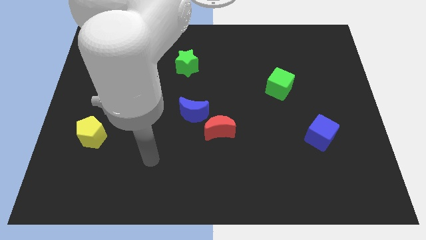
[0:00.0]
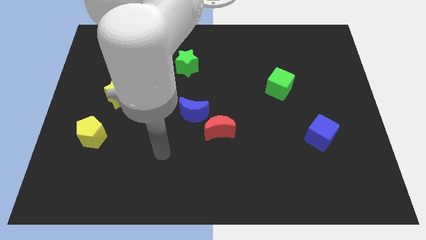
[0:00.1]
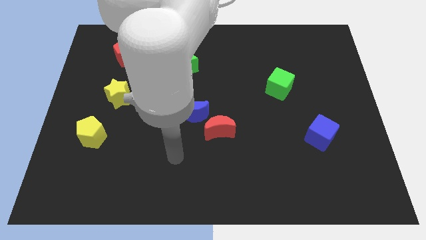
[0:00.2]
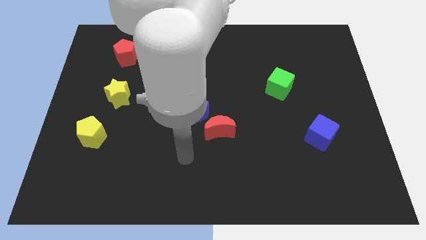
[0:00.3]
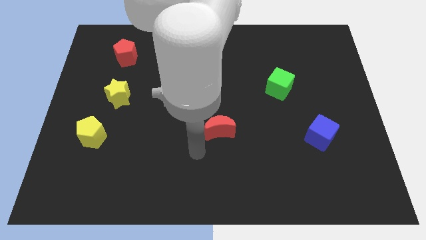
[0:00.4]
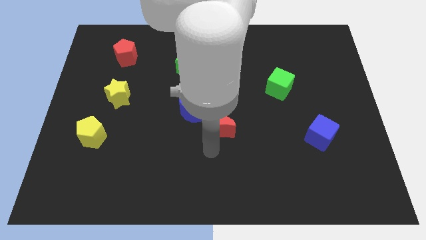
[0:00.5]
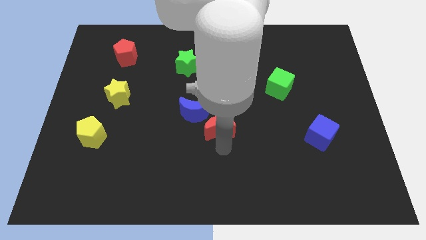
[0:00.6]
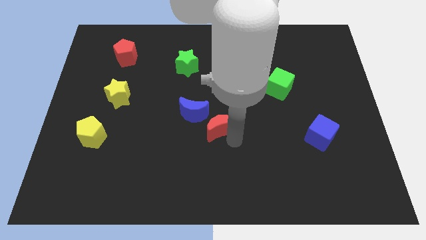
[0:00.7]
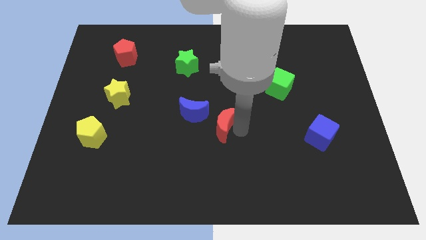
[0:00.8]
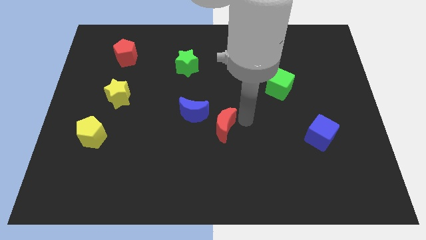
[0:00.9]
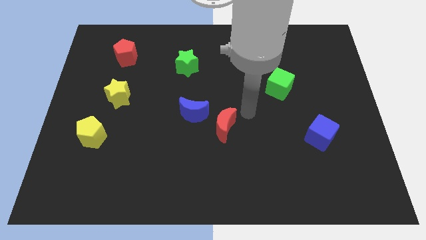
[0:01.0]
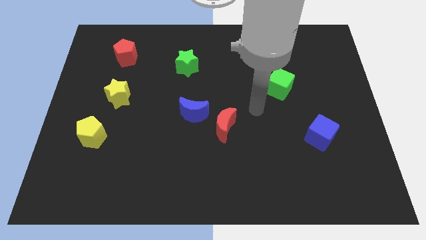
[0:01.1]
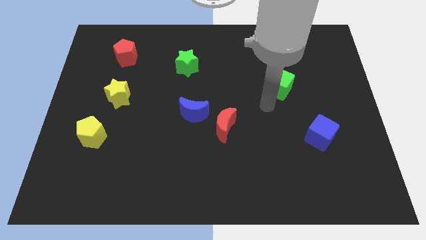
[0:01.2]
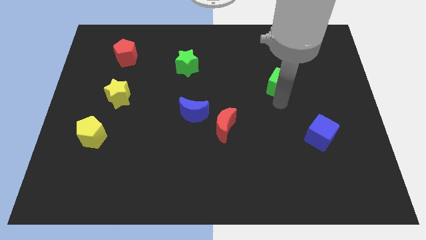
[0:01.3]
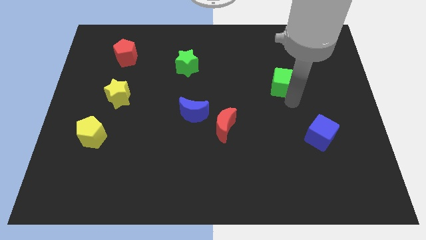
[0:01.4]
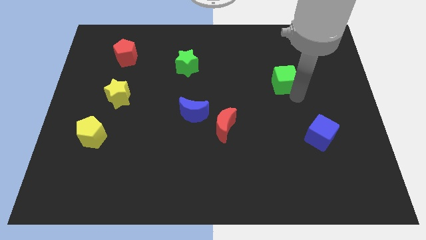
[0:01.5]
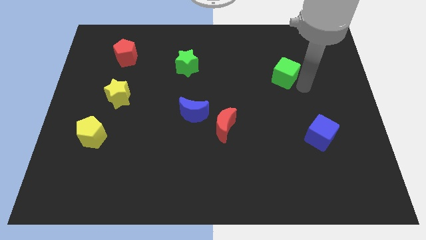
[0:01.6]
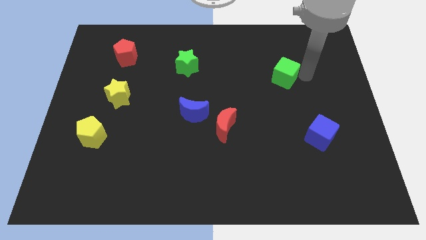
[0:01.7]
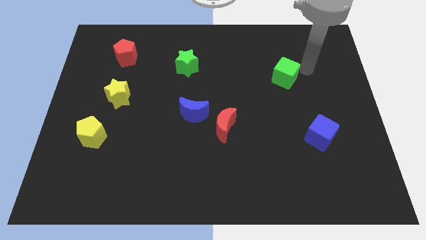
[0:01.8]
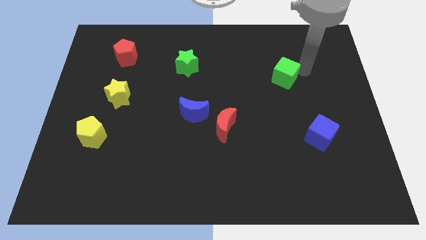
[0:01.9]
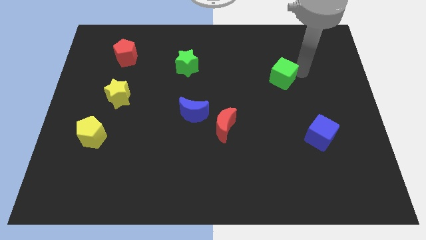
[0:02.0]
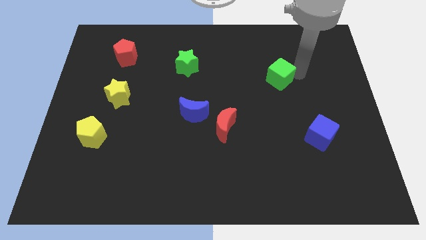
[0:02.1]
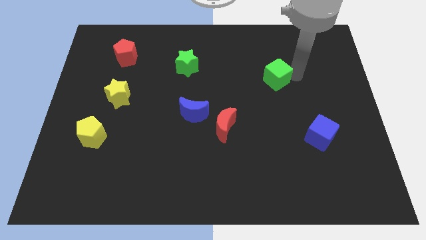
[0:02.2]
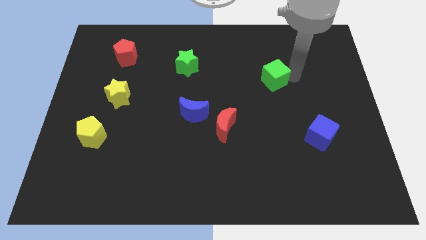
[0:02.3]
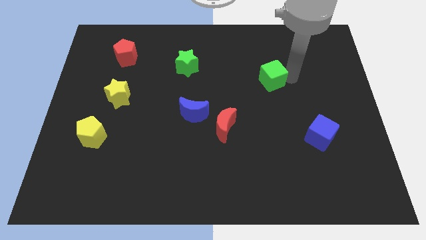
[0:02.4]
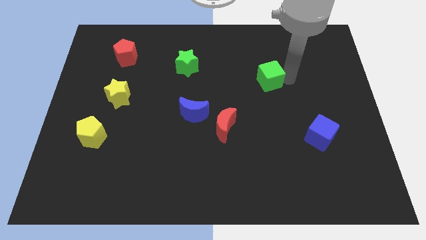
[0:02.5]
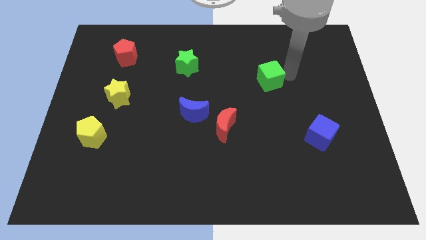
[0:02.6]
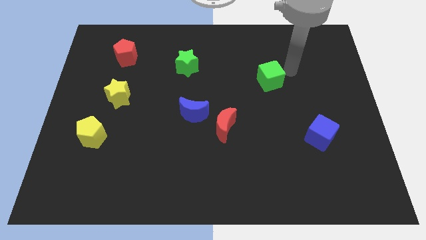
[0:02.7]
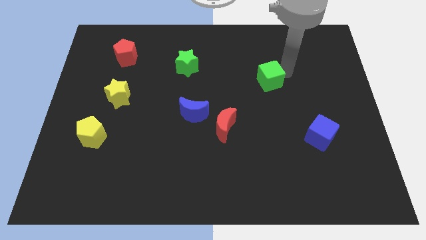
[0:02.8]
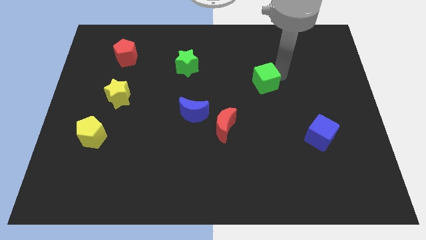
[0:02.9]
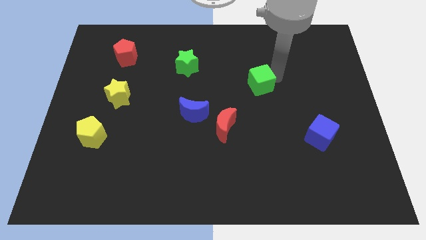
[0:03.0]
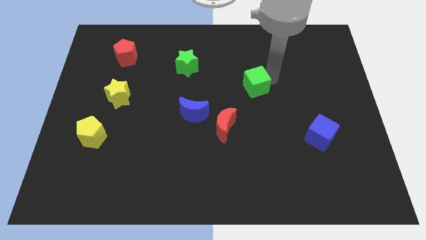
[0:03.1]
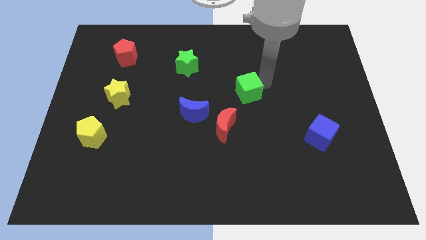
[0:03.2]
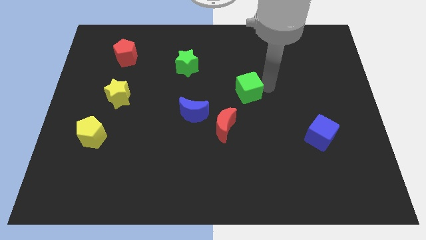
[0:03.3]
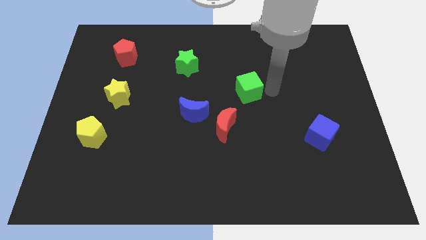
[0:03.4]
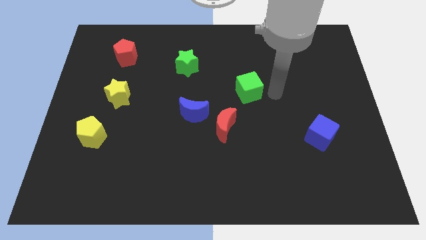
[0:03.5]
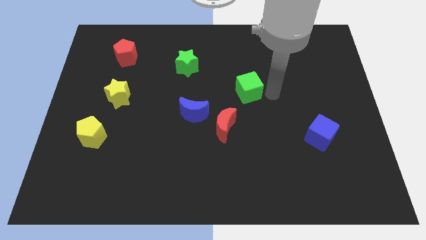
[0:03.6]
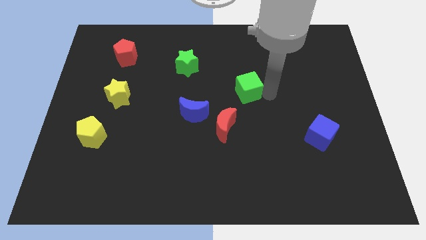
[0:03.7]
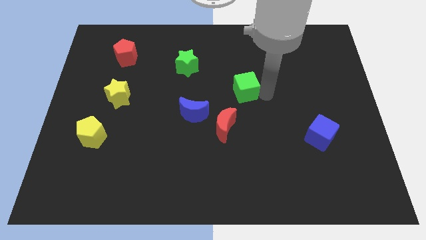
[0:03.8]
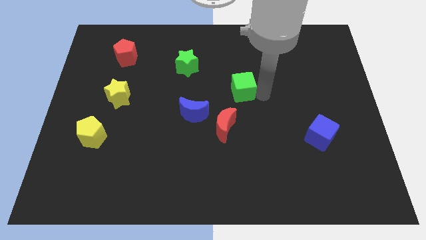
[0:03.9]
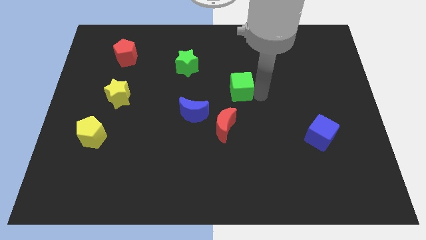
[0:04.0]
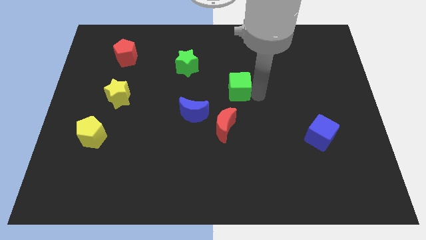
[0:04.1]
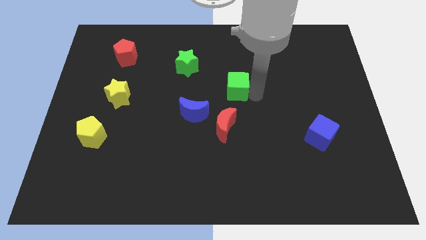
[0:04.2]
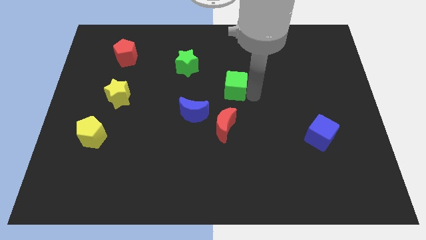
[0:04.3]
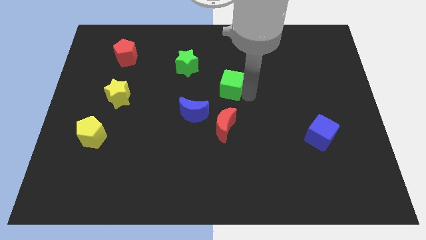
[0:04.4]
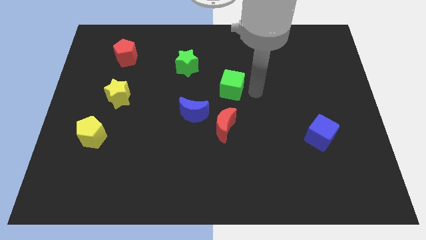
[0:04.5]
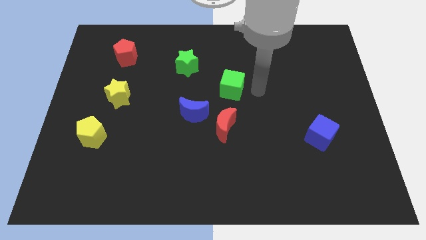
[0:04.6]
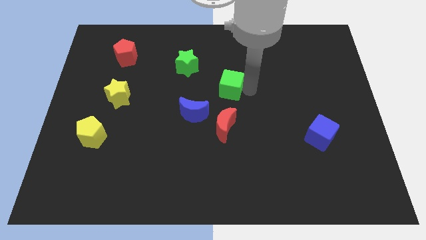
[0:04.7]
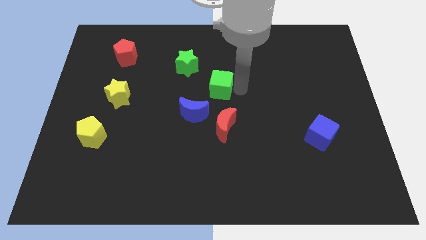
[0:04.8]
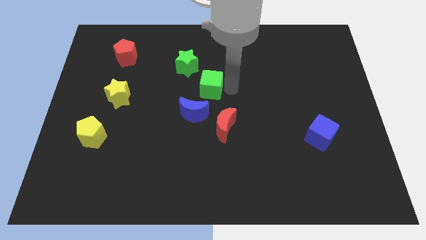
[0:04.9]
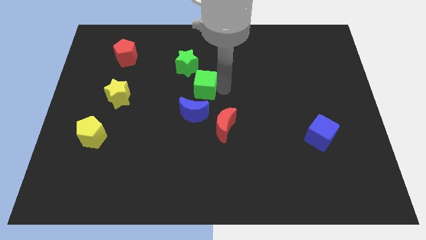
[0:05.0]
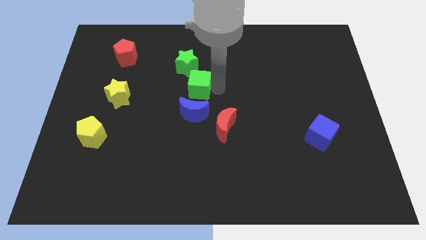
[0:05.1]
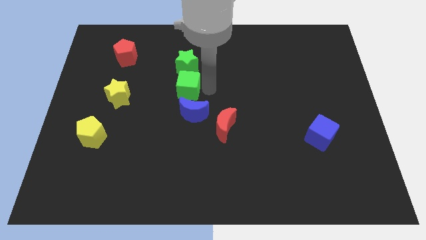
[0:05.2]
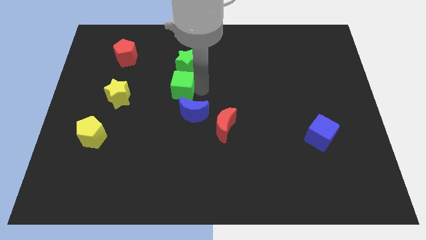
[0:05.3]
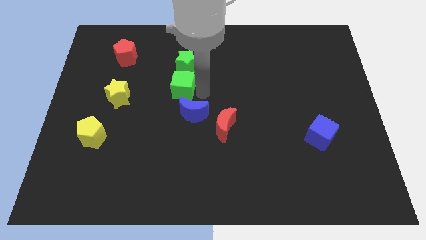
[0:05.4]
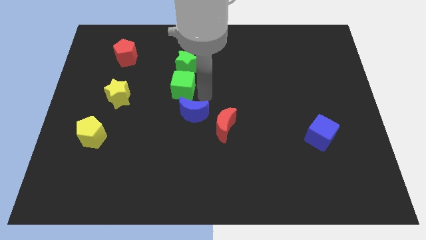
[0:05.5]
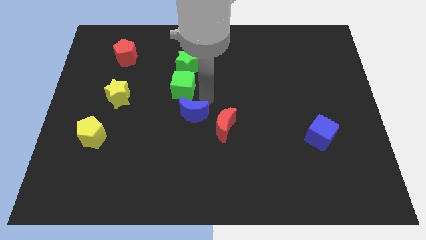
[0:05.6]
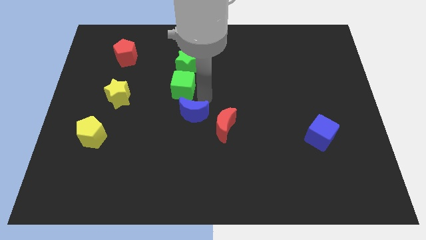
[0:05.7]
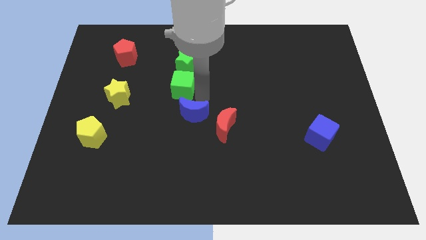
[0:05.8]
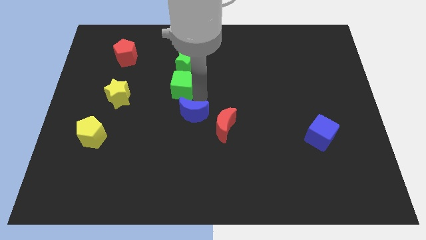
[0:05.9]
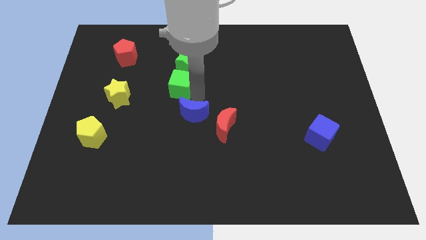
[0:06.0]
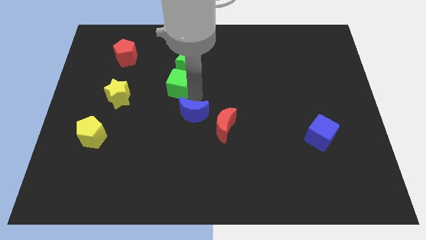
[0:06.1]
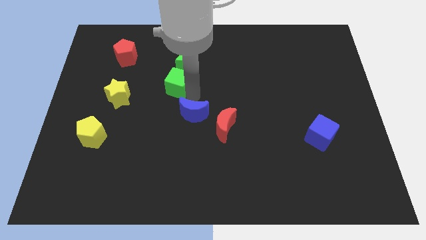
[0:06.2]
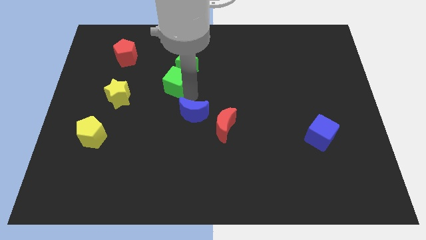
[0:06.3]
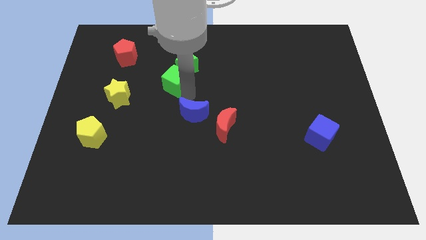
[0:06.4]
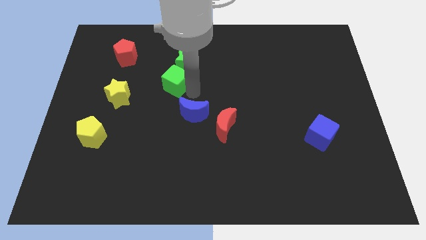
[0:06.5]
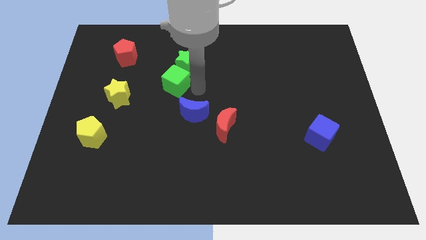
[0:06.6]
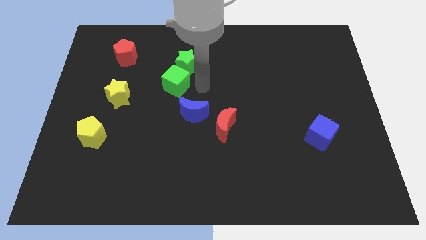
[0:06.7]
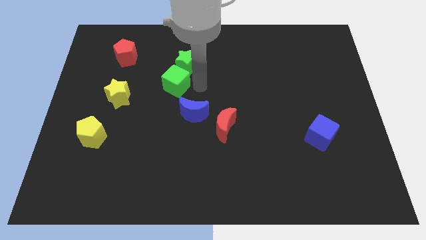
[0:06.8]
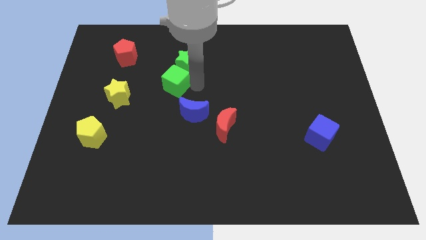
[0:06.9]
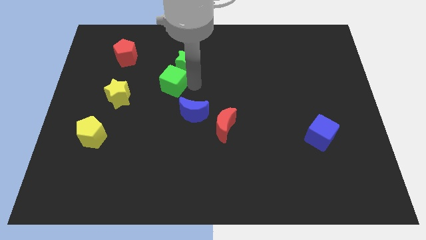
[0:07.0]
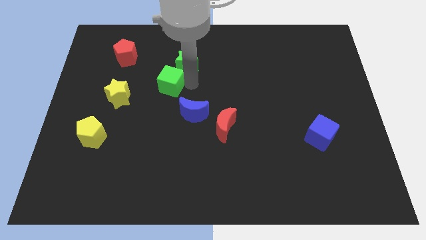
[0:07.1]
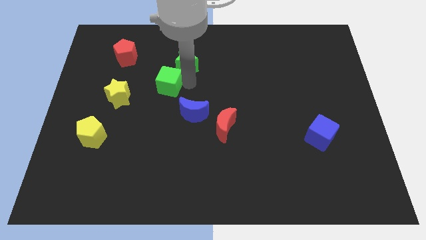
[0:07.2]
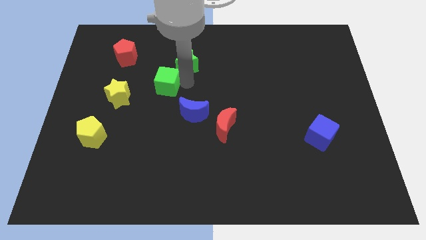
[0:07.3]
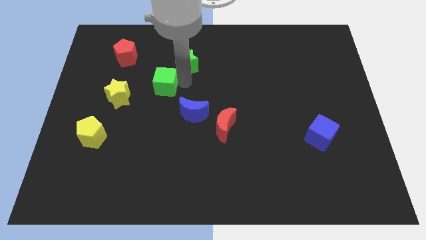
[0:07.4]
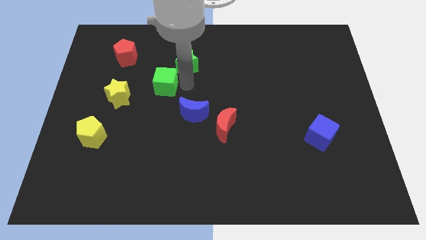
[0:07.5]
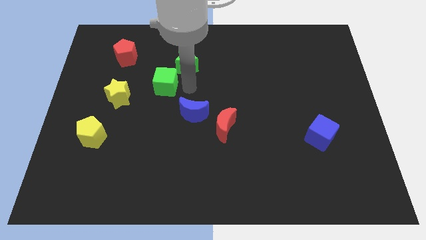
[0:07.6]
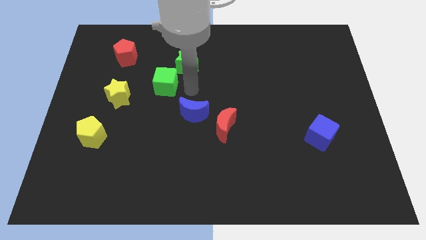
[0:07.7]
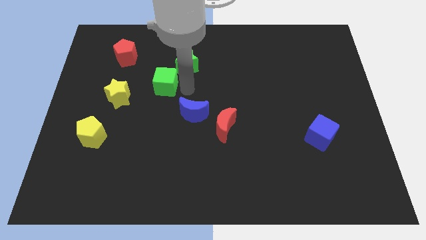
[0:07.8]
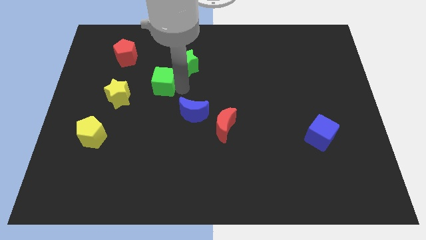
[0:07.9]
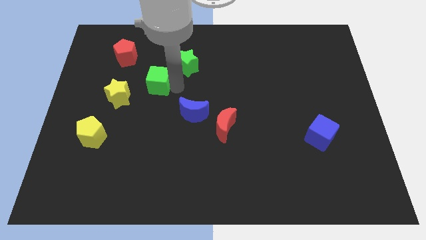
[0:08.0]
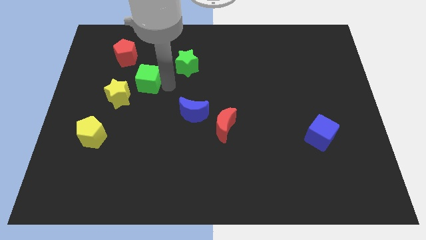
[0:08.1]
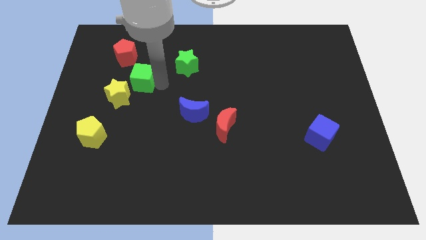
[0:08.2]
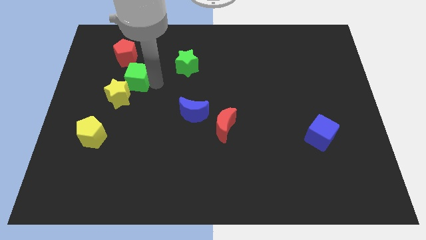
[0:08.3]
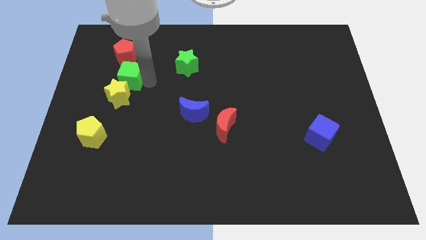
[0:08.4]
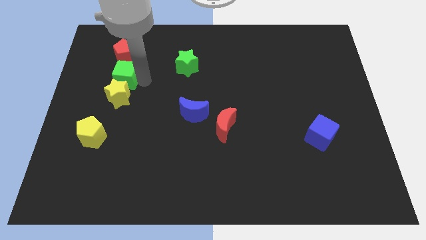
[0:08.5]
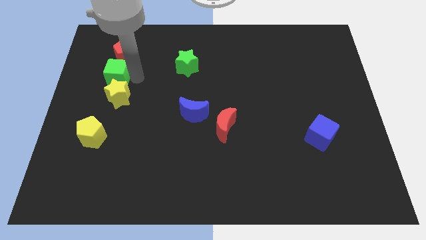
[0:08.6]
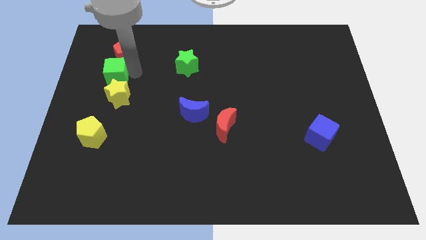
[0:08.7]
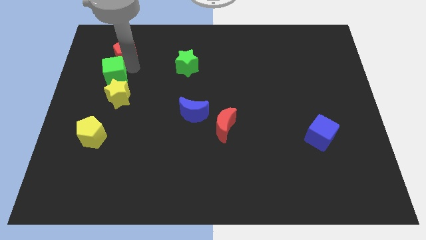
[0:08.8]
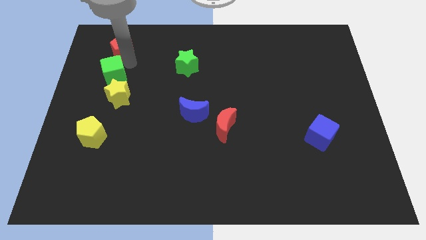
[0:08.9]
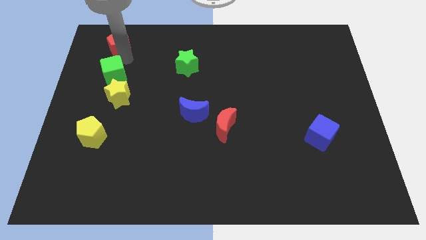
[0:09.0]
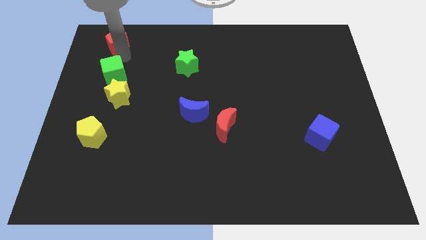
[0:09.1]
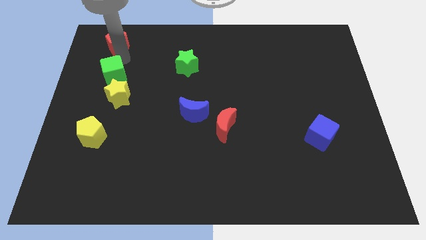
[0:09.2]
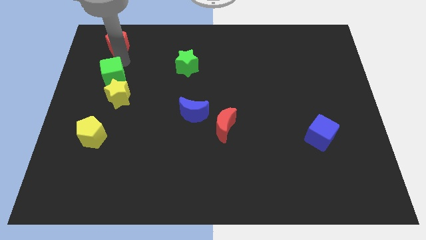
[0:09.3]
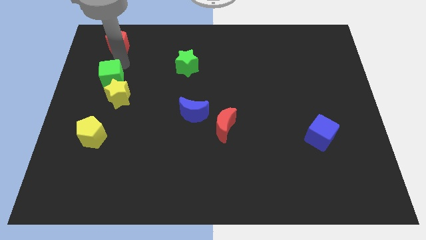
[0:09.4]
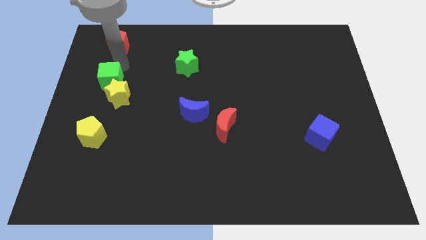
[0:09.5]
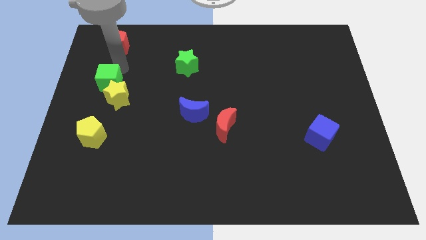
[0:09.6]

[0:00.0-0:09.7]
slide the green cube to the top side of the yellow pentagon
